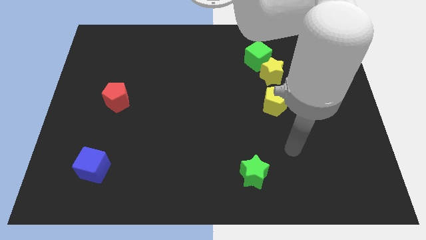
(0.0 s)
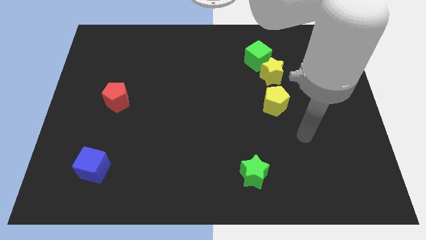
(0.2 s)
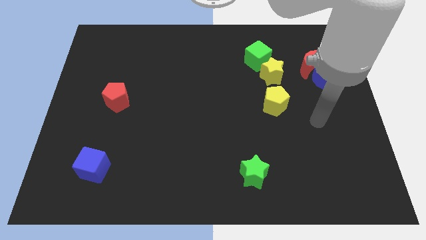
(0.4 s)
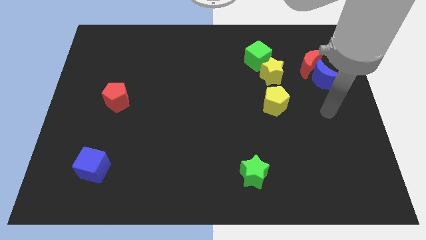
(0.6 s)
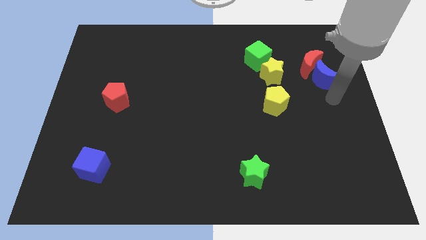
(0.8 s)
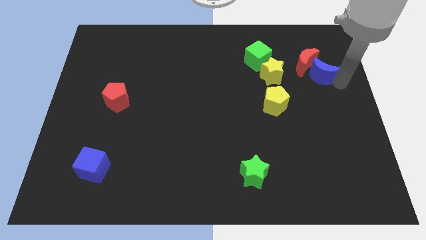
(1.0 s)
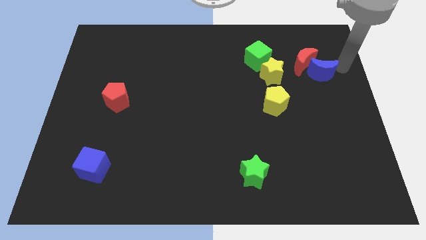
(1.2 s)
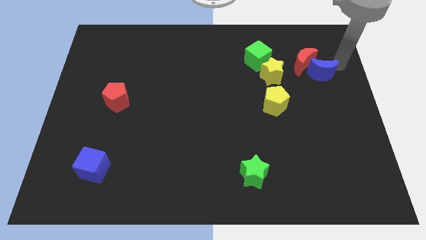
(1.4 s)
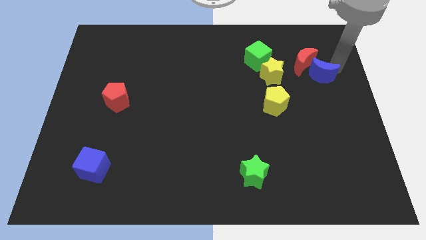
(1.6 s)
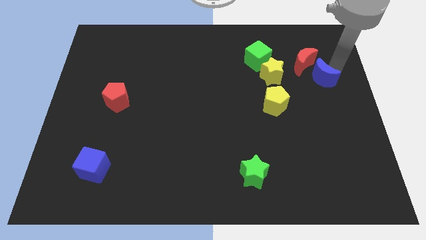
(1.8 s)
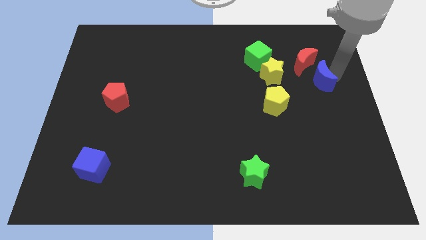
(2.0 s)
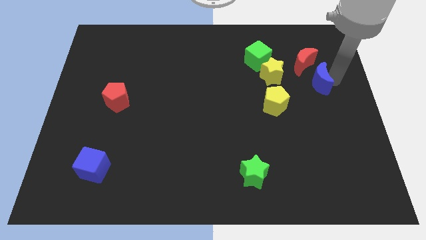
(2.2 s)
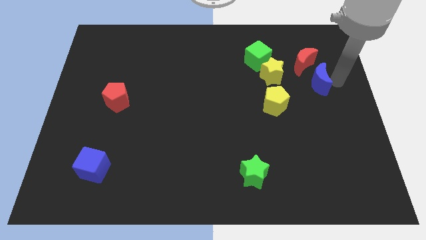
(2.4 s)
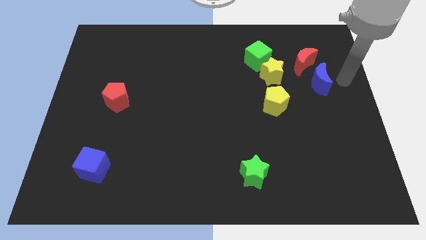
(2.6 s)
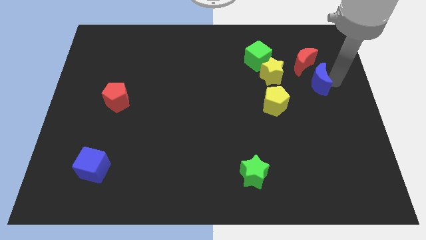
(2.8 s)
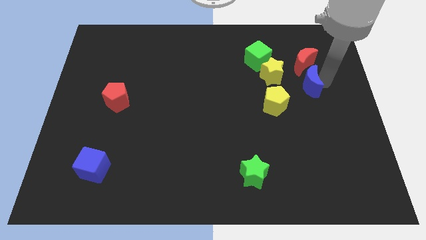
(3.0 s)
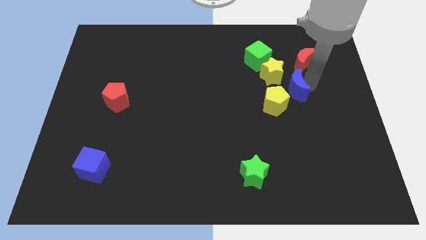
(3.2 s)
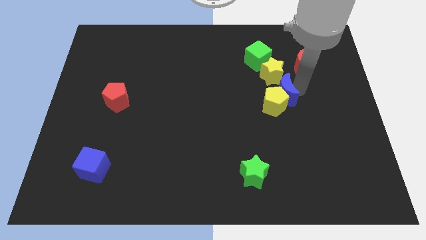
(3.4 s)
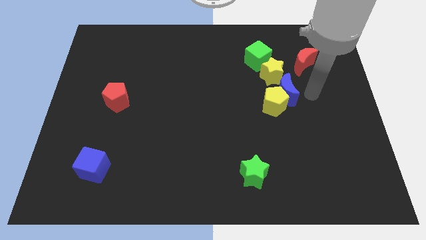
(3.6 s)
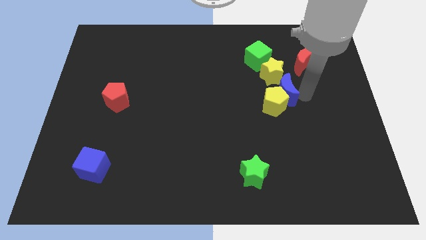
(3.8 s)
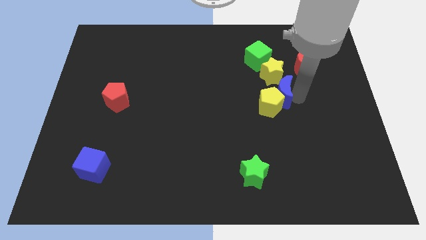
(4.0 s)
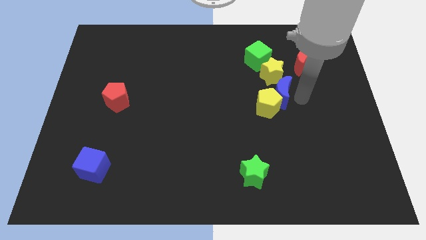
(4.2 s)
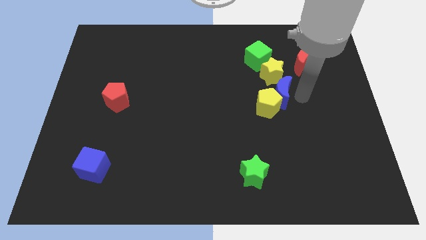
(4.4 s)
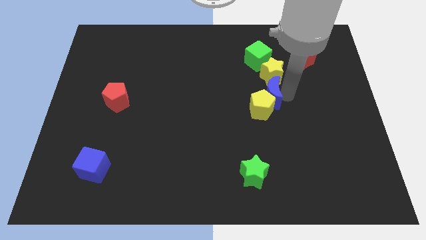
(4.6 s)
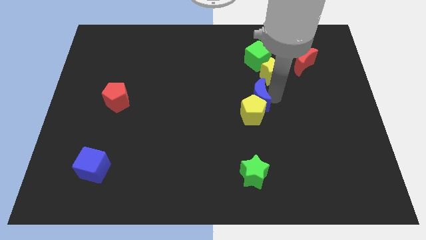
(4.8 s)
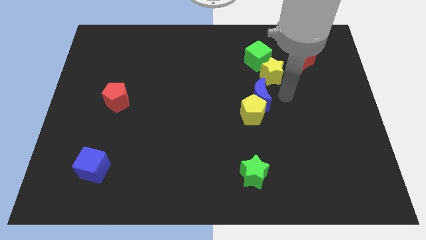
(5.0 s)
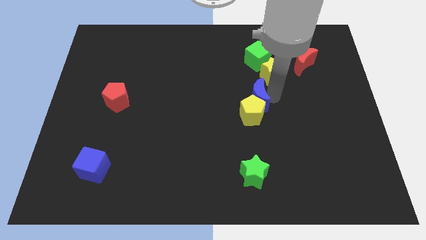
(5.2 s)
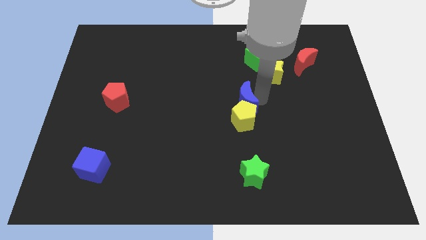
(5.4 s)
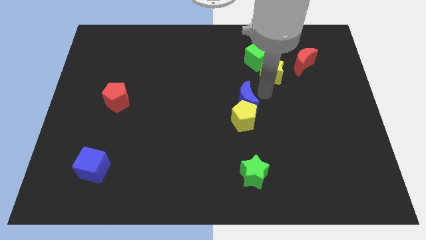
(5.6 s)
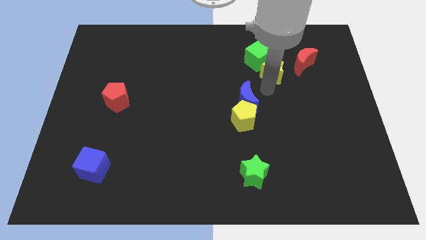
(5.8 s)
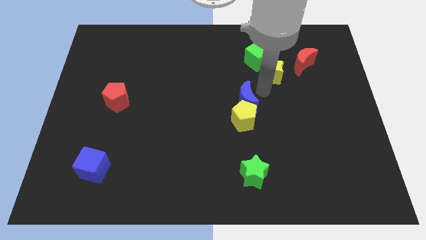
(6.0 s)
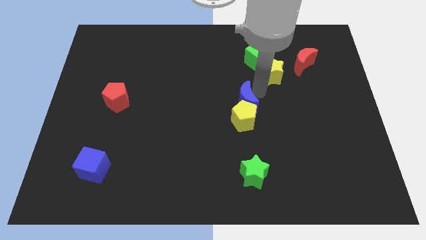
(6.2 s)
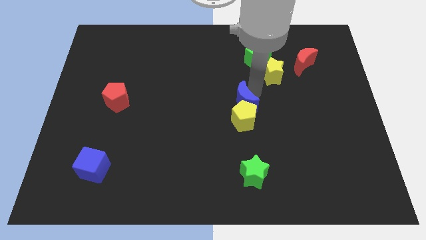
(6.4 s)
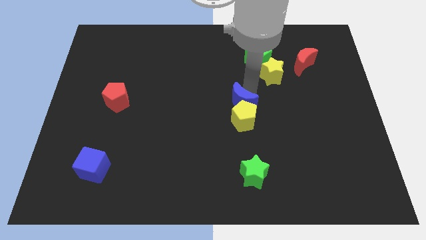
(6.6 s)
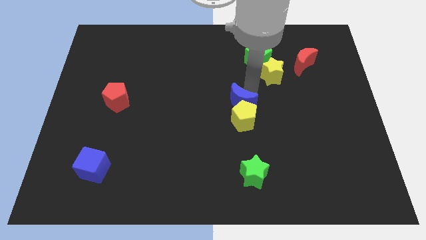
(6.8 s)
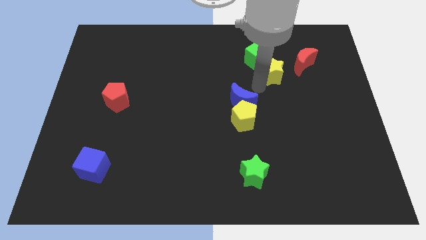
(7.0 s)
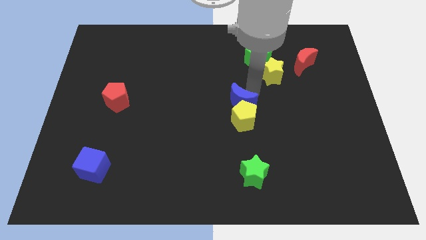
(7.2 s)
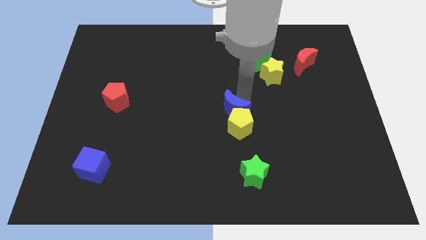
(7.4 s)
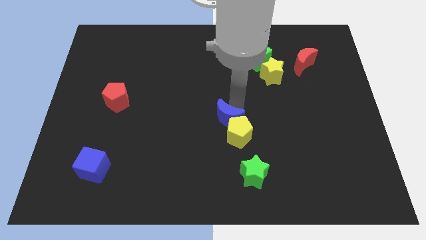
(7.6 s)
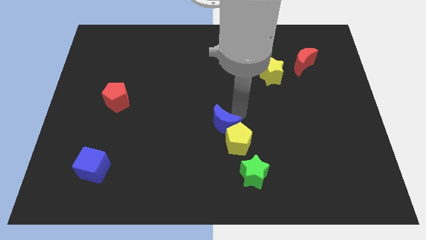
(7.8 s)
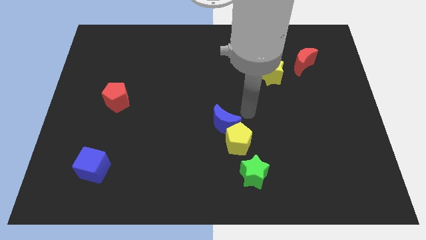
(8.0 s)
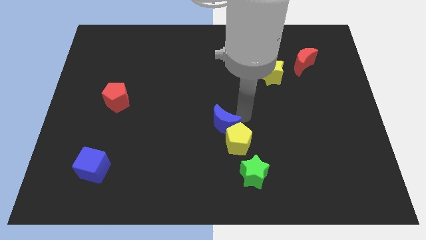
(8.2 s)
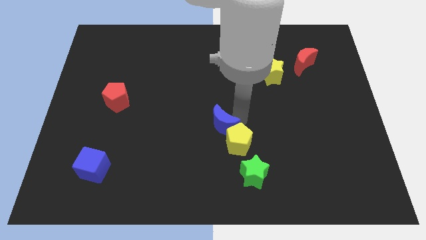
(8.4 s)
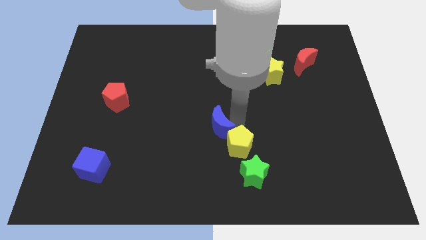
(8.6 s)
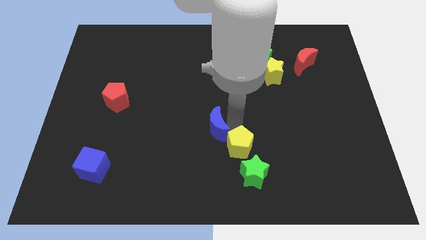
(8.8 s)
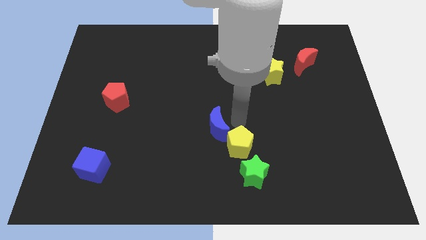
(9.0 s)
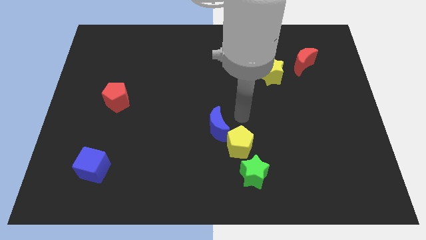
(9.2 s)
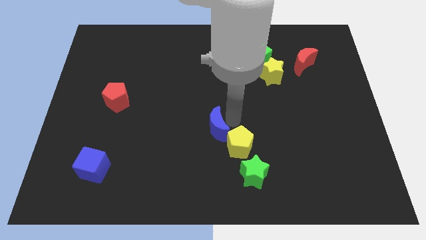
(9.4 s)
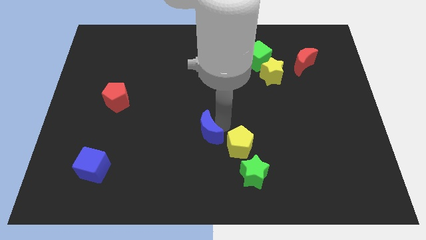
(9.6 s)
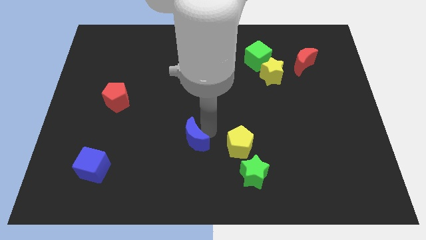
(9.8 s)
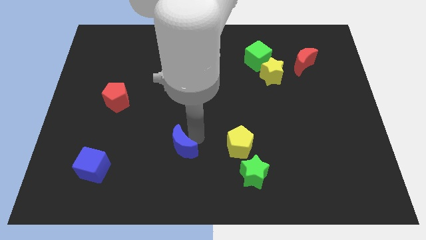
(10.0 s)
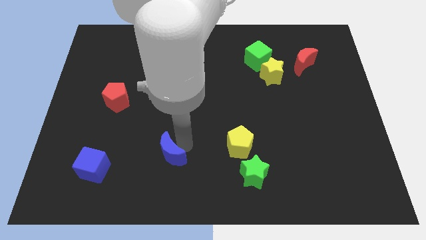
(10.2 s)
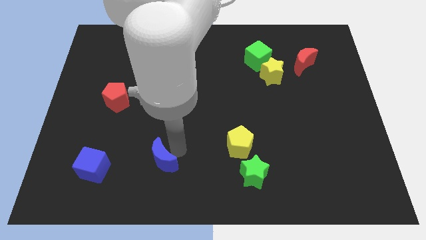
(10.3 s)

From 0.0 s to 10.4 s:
slide the blue moon just right of the blue cube

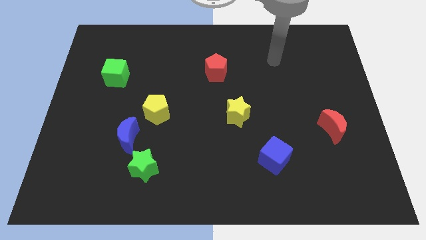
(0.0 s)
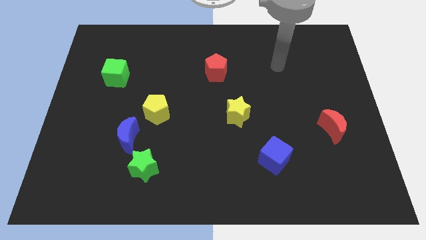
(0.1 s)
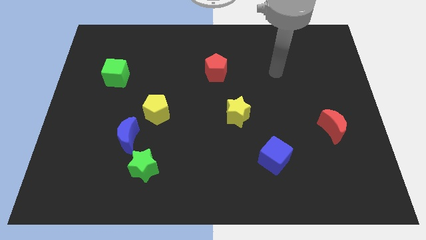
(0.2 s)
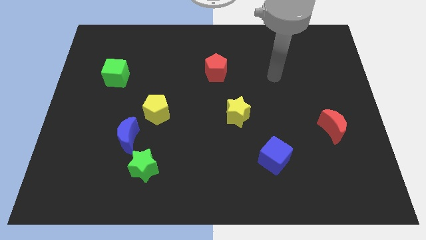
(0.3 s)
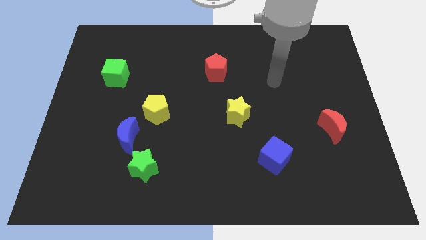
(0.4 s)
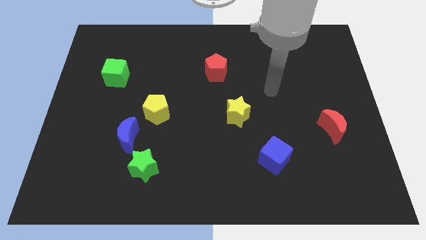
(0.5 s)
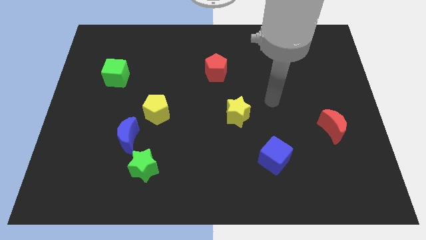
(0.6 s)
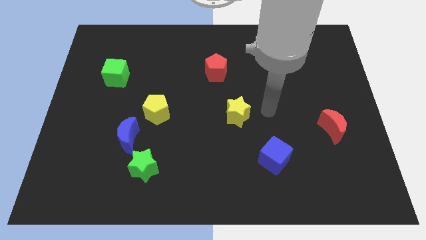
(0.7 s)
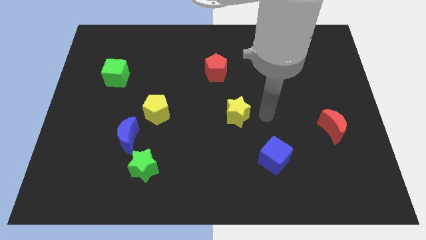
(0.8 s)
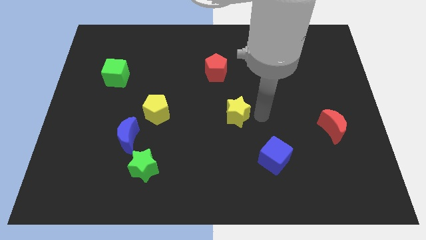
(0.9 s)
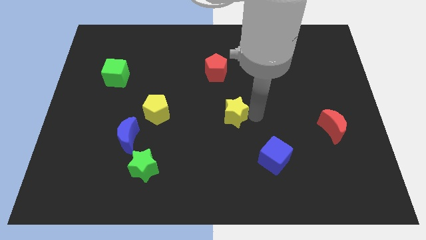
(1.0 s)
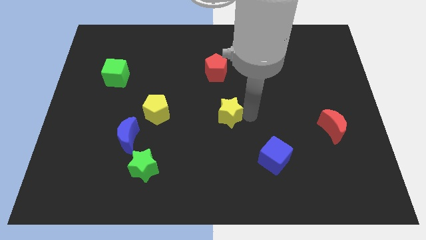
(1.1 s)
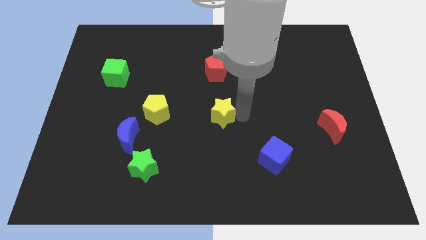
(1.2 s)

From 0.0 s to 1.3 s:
move the yellow star just right of the yellow pentagon
